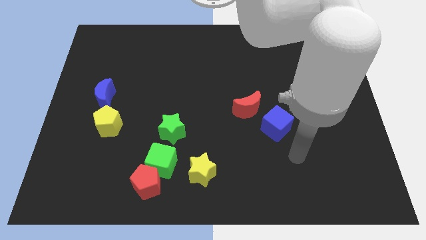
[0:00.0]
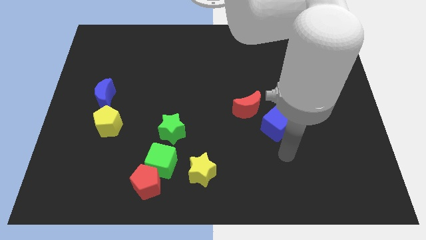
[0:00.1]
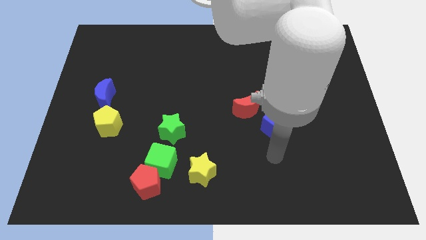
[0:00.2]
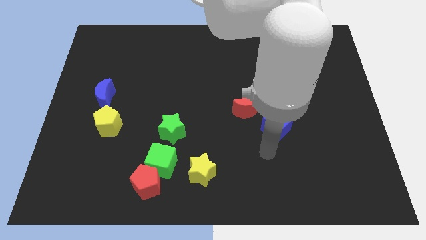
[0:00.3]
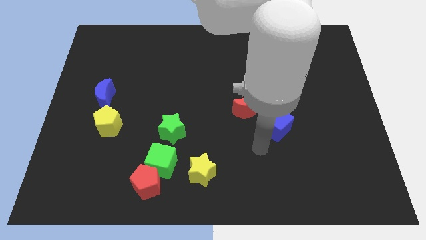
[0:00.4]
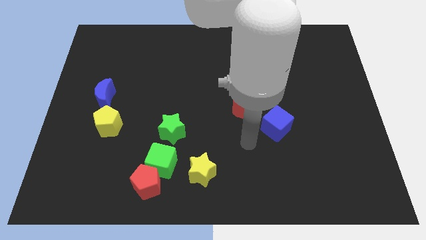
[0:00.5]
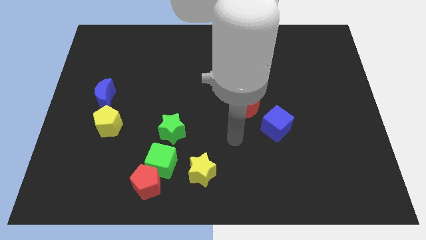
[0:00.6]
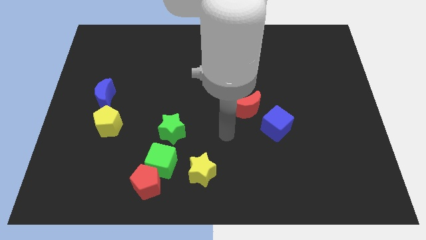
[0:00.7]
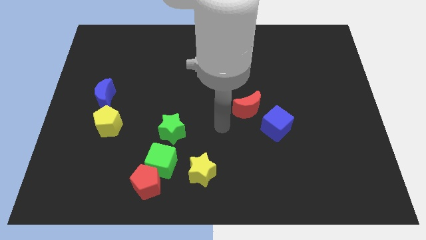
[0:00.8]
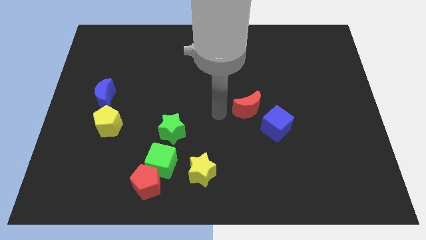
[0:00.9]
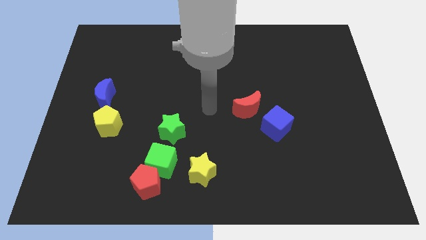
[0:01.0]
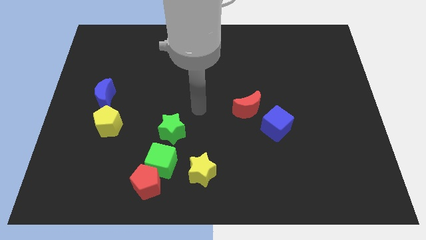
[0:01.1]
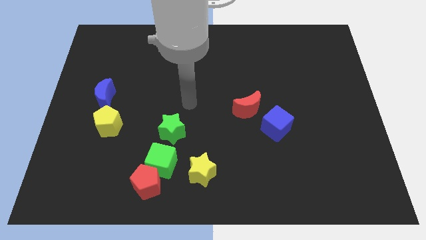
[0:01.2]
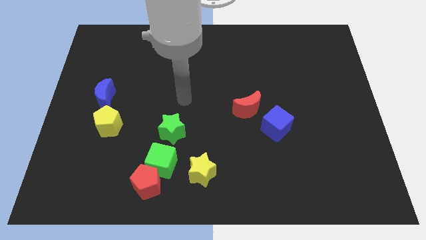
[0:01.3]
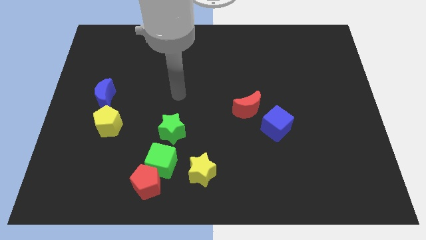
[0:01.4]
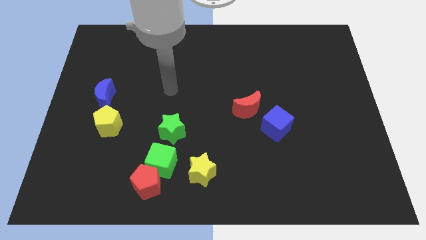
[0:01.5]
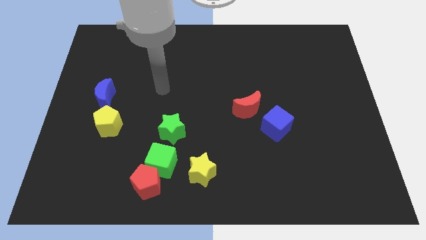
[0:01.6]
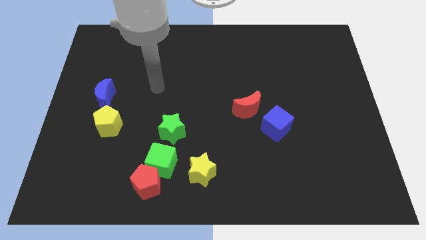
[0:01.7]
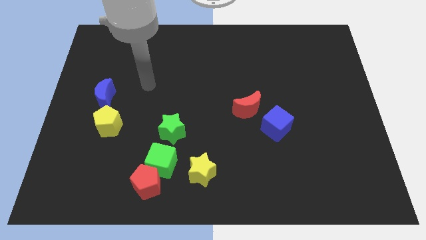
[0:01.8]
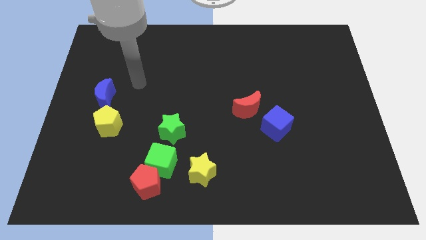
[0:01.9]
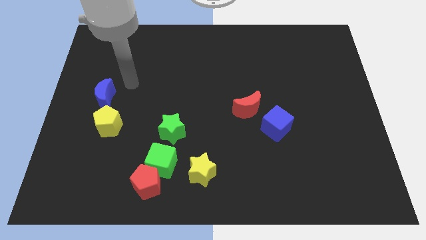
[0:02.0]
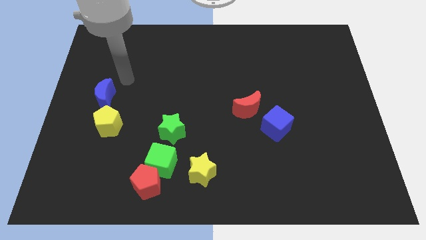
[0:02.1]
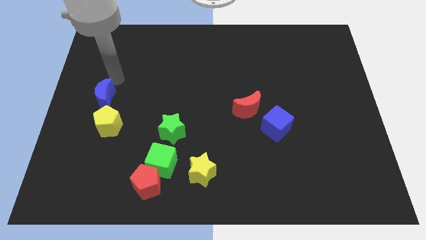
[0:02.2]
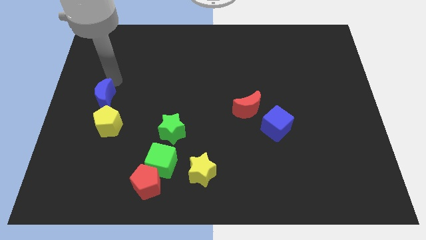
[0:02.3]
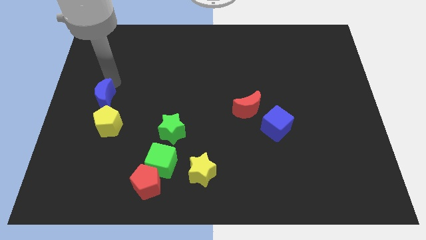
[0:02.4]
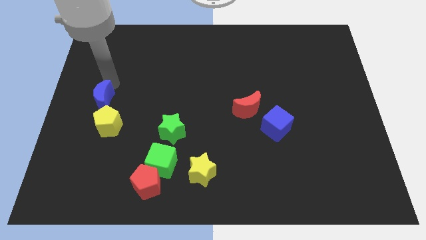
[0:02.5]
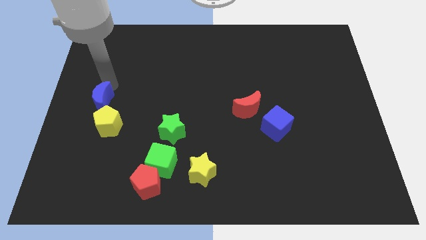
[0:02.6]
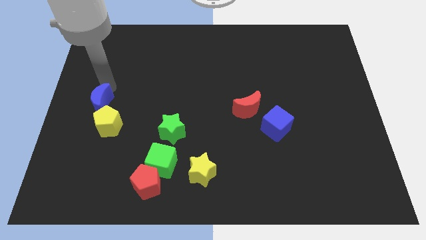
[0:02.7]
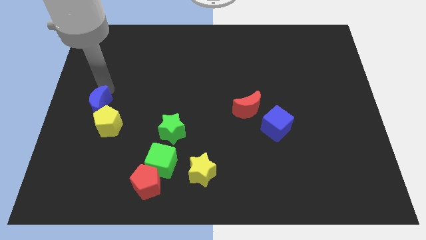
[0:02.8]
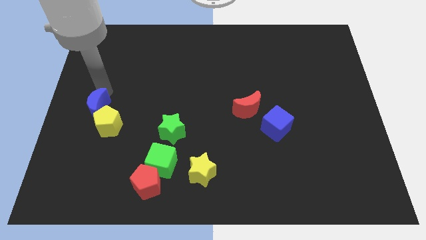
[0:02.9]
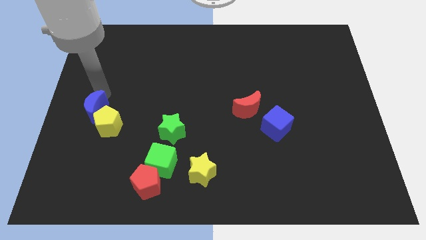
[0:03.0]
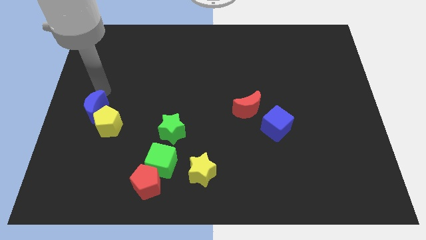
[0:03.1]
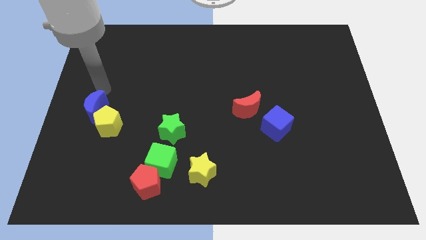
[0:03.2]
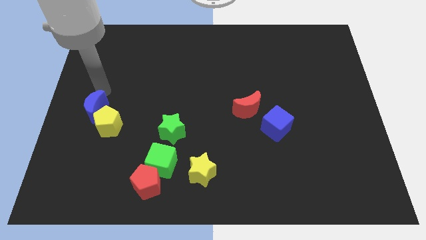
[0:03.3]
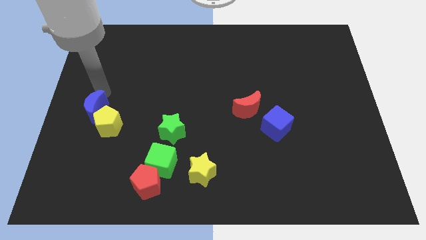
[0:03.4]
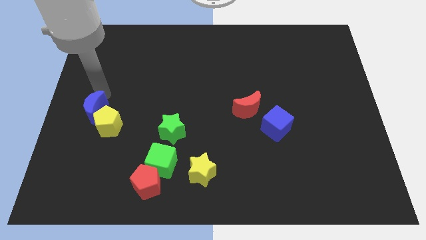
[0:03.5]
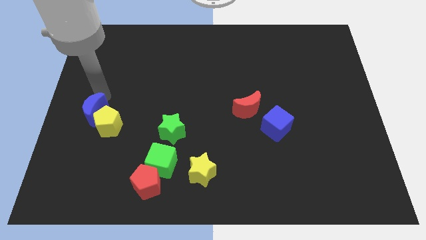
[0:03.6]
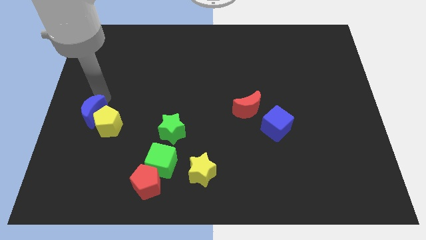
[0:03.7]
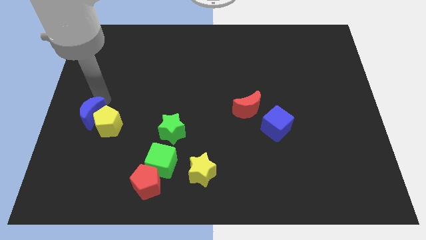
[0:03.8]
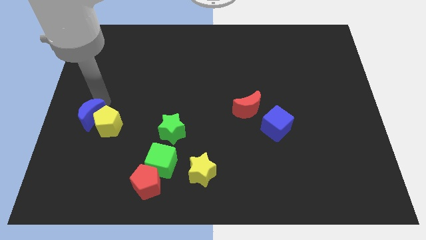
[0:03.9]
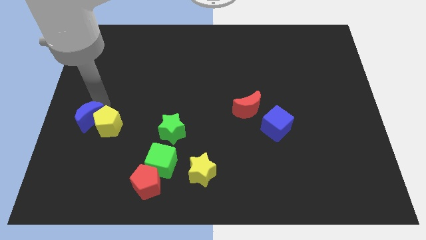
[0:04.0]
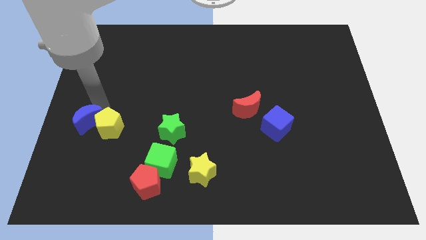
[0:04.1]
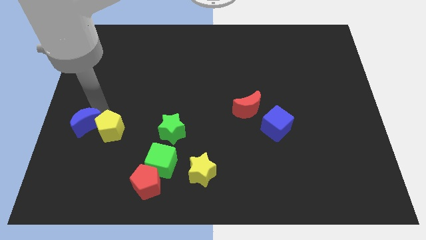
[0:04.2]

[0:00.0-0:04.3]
slightly slide the blue moon downwards

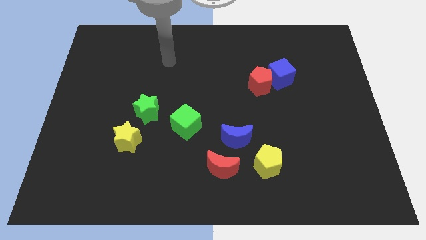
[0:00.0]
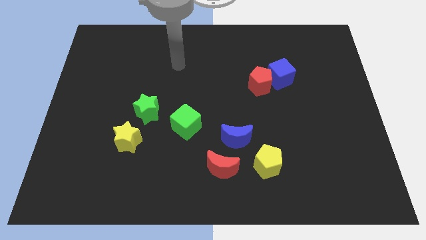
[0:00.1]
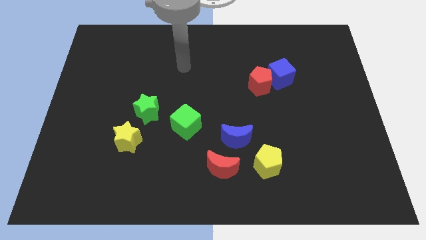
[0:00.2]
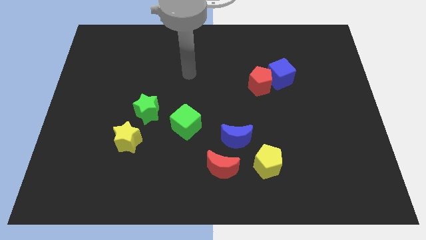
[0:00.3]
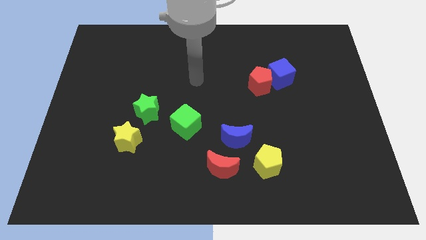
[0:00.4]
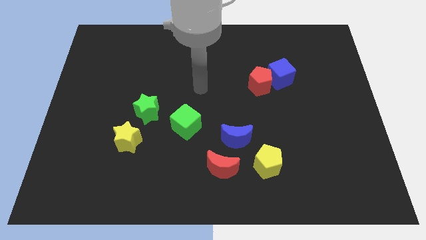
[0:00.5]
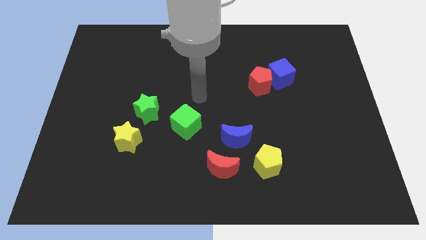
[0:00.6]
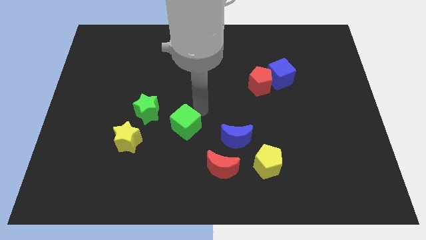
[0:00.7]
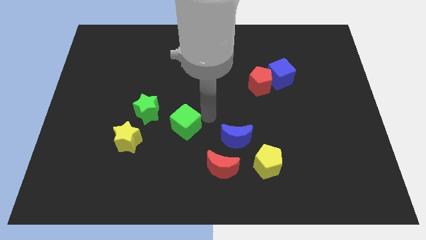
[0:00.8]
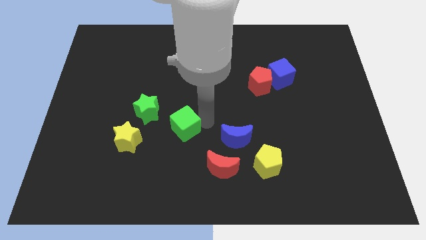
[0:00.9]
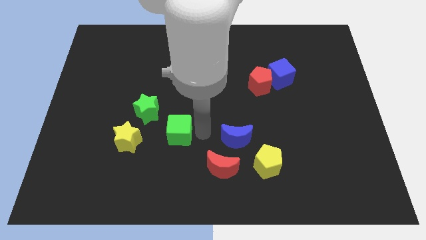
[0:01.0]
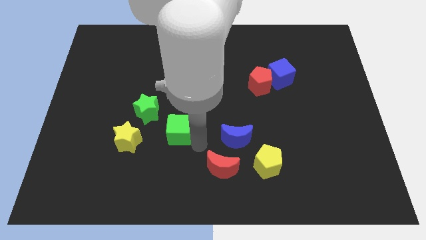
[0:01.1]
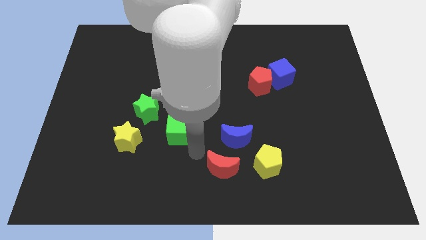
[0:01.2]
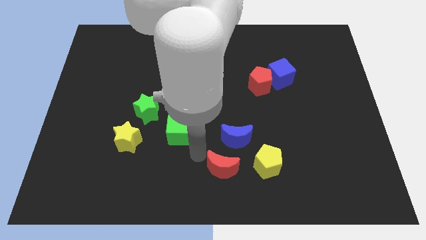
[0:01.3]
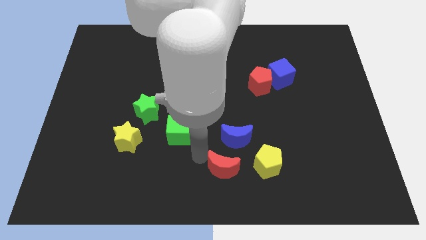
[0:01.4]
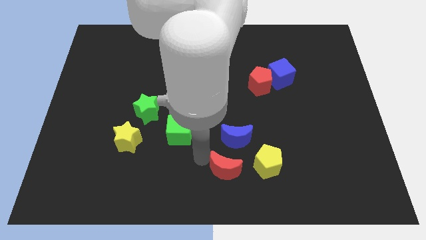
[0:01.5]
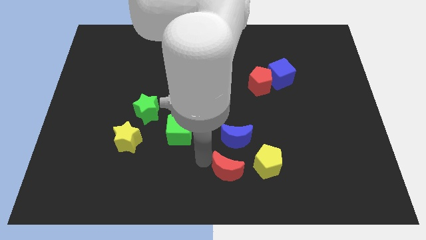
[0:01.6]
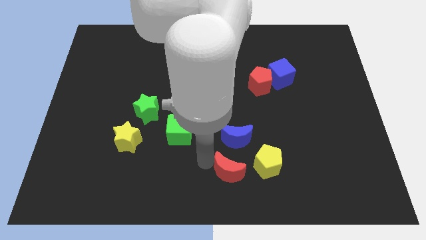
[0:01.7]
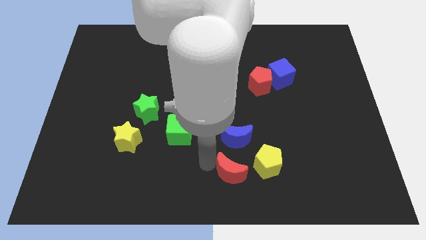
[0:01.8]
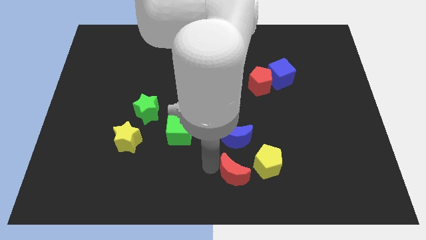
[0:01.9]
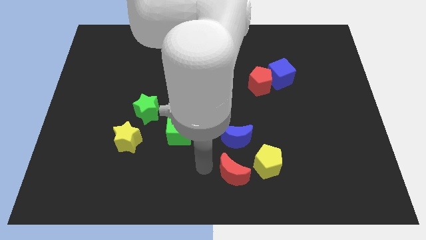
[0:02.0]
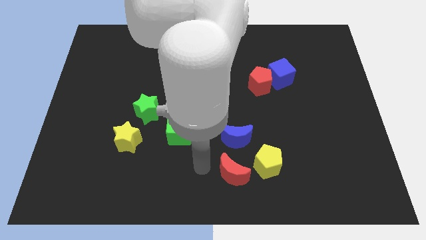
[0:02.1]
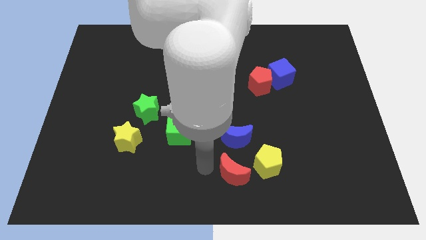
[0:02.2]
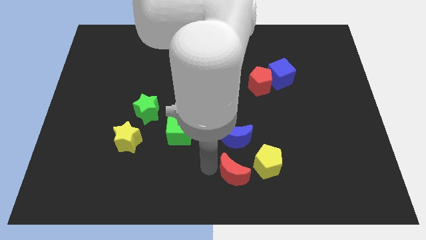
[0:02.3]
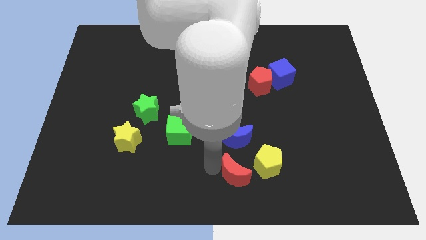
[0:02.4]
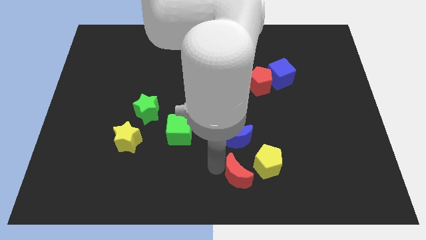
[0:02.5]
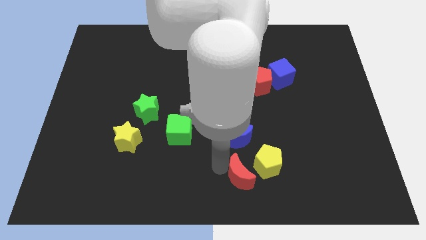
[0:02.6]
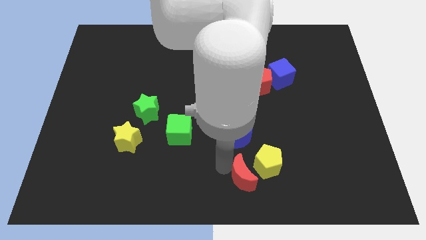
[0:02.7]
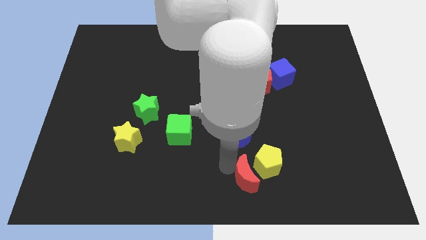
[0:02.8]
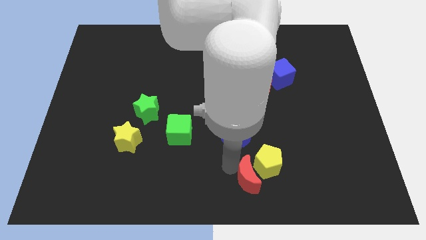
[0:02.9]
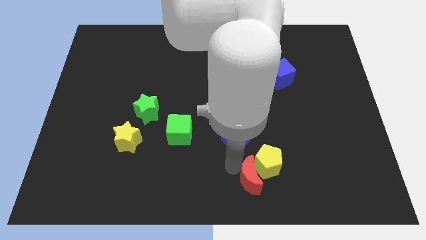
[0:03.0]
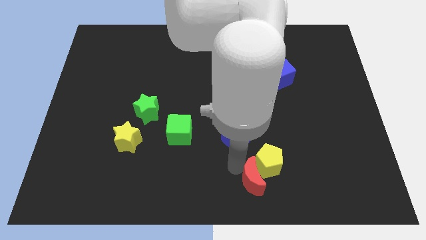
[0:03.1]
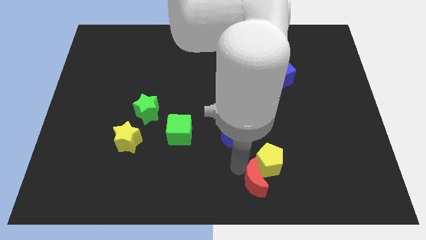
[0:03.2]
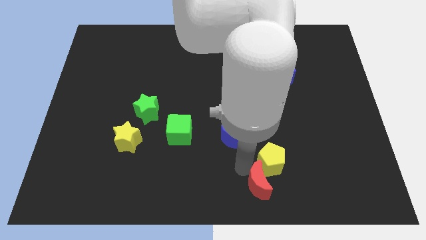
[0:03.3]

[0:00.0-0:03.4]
slightly slide the red moon to the right

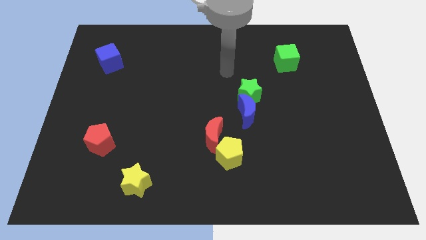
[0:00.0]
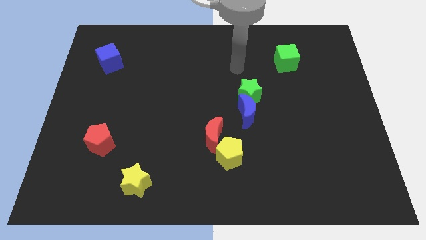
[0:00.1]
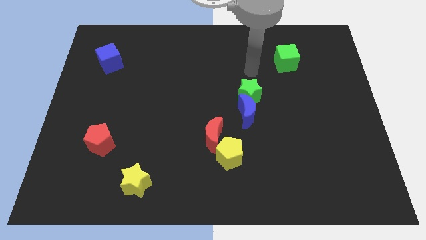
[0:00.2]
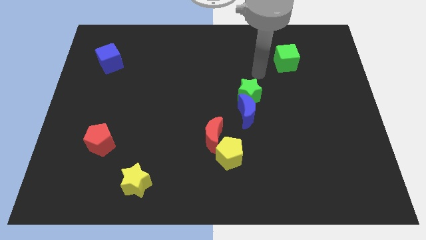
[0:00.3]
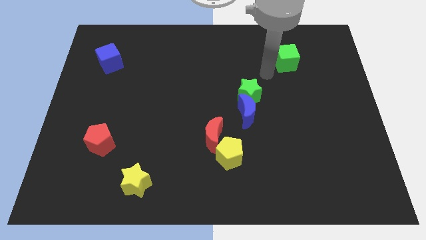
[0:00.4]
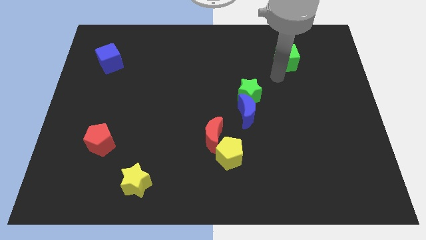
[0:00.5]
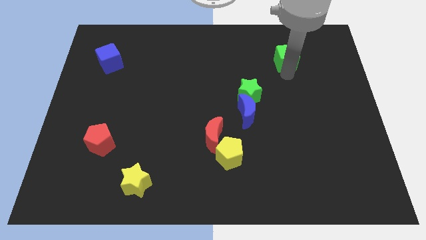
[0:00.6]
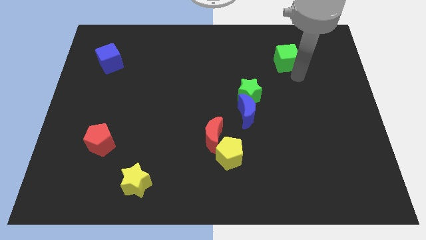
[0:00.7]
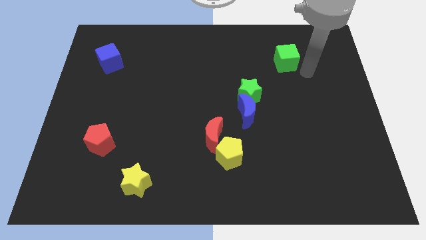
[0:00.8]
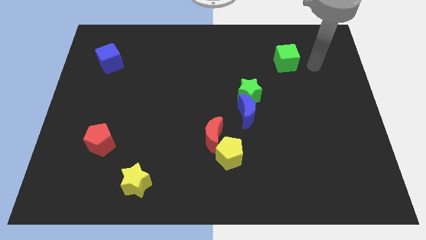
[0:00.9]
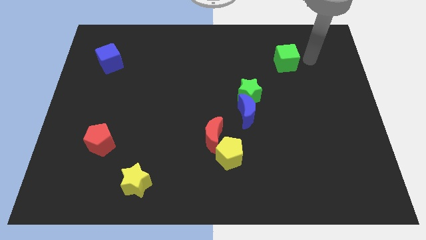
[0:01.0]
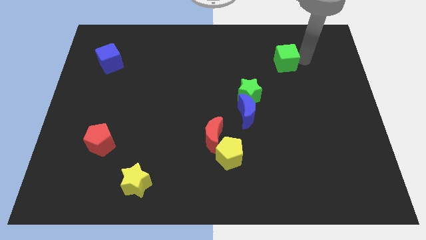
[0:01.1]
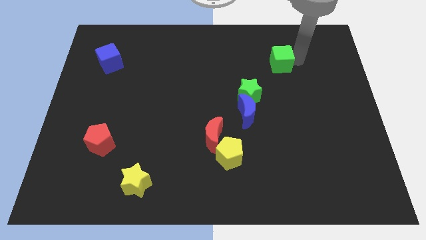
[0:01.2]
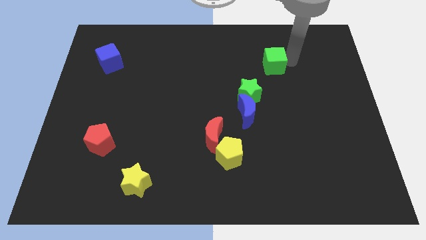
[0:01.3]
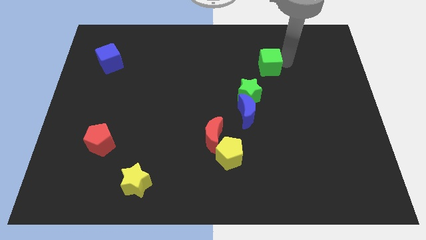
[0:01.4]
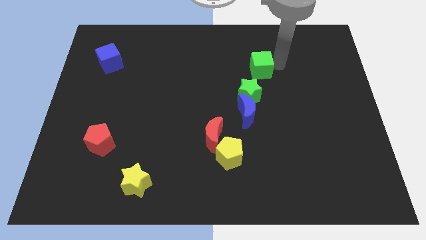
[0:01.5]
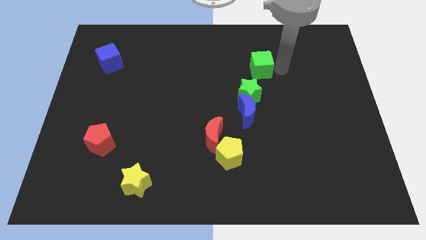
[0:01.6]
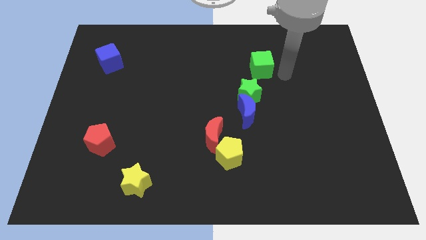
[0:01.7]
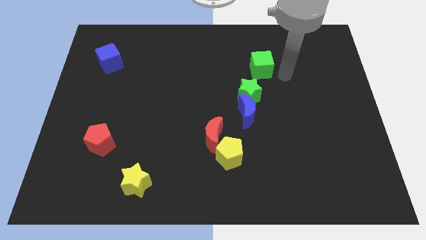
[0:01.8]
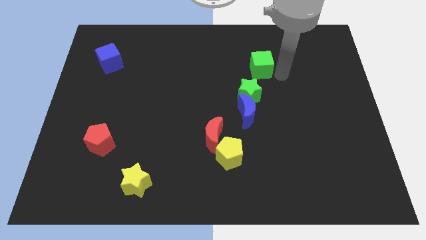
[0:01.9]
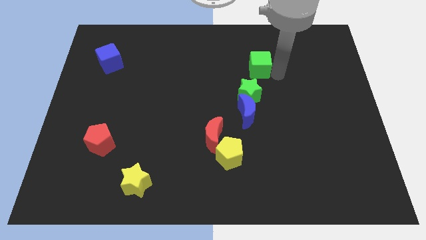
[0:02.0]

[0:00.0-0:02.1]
push the green cube a bit to the left
